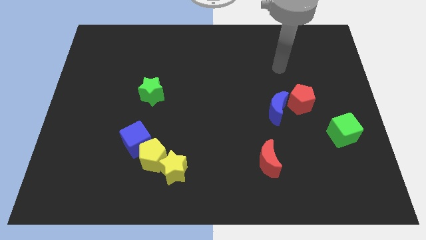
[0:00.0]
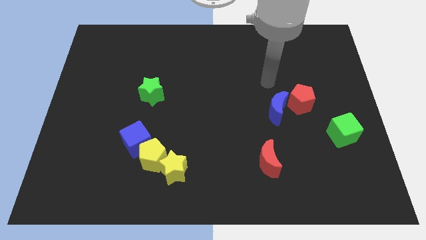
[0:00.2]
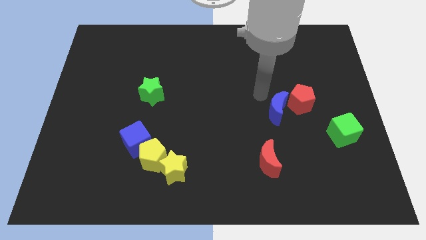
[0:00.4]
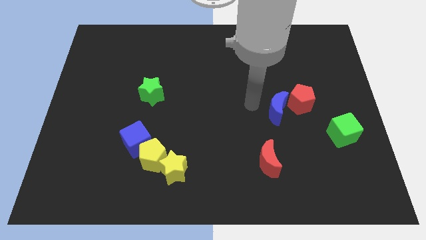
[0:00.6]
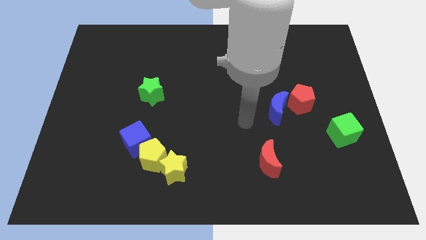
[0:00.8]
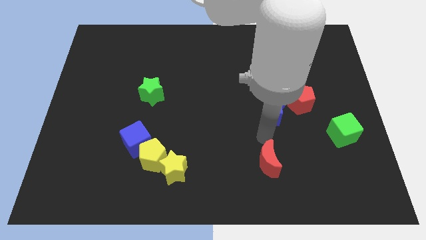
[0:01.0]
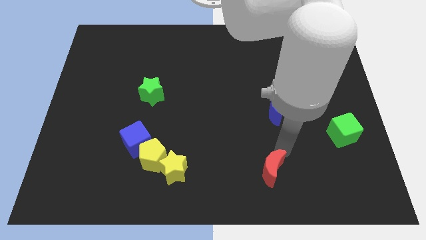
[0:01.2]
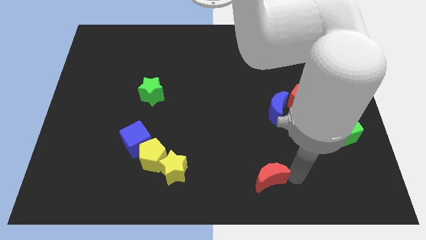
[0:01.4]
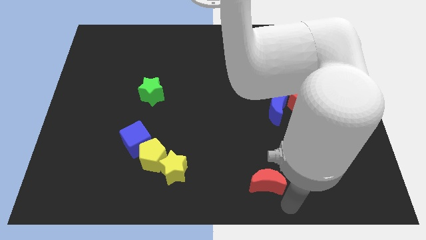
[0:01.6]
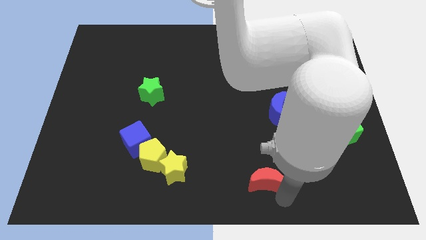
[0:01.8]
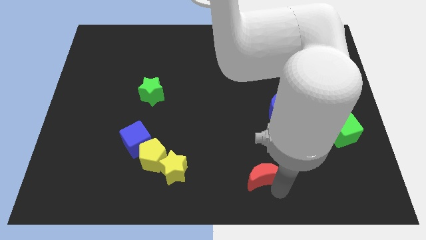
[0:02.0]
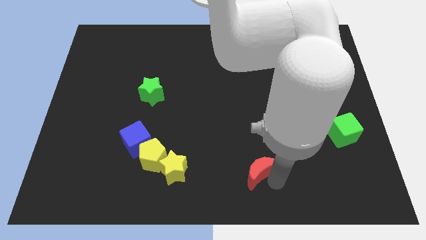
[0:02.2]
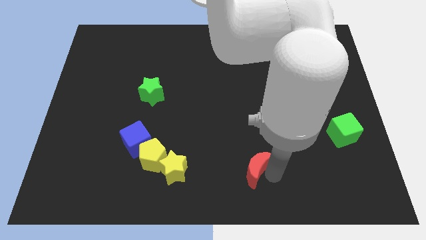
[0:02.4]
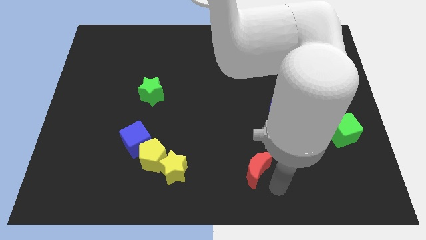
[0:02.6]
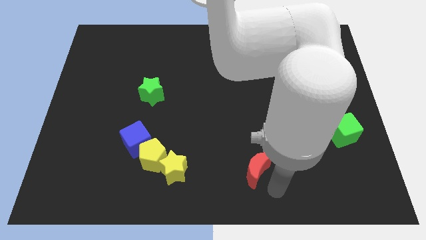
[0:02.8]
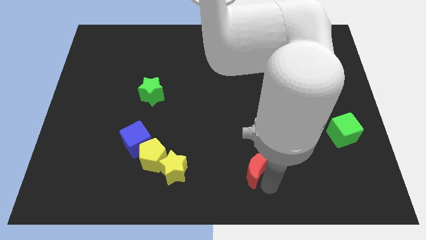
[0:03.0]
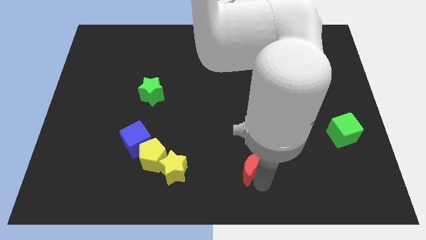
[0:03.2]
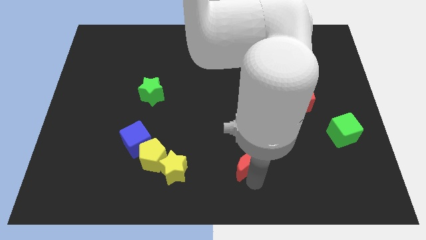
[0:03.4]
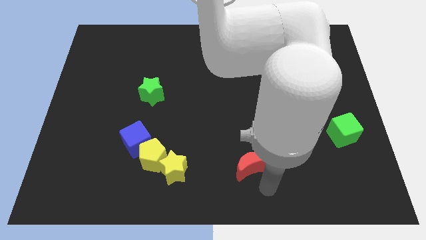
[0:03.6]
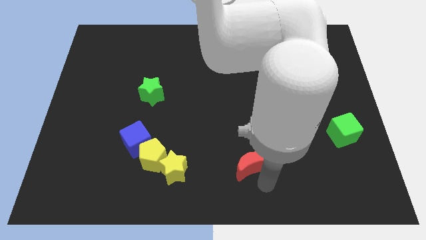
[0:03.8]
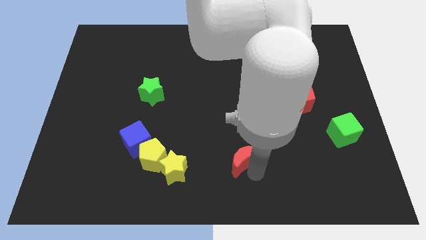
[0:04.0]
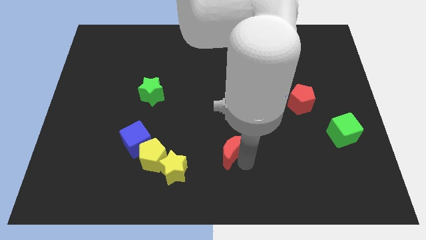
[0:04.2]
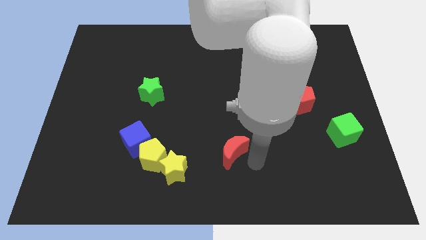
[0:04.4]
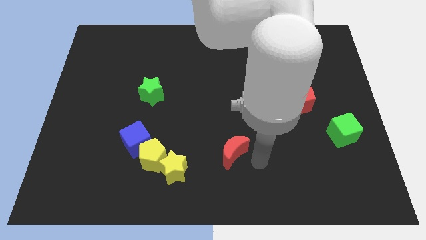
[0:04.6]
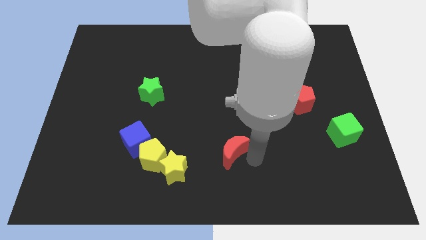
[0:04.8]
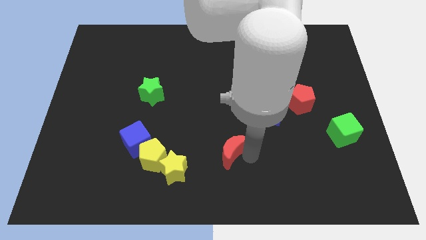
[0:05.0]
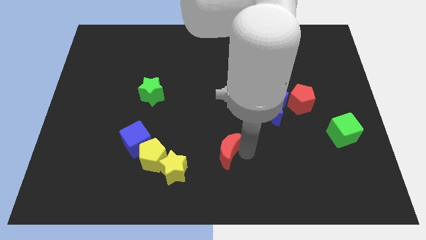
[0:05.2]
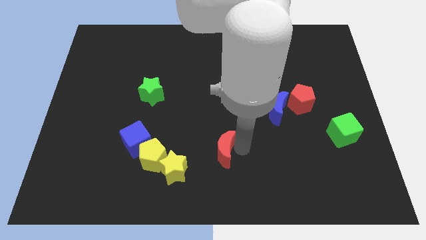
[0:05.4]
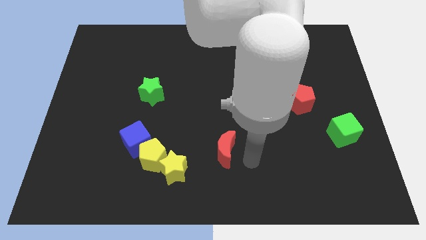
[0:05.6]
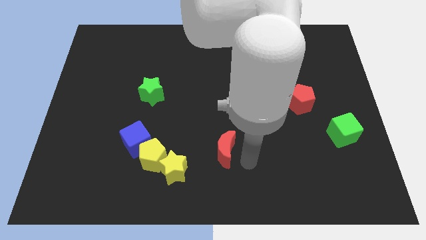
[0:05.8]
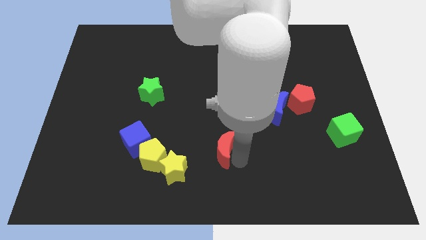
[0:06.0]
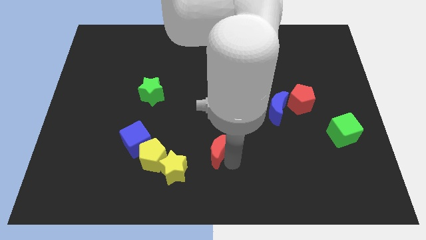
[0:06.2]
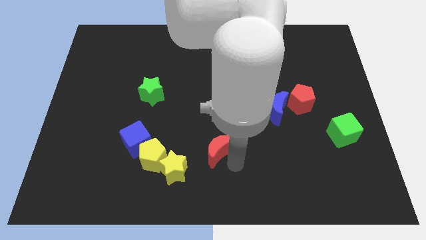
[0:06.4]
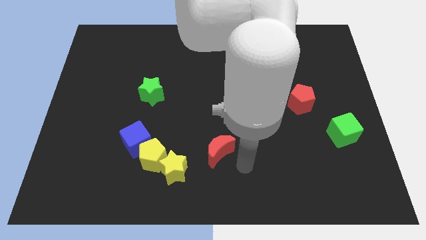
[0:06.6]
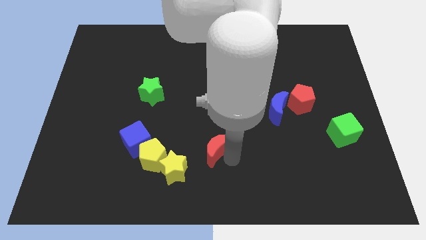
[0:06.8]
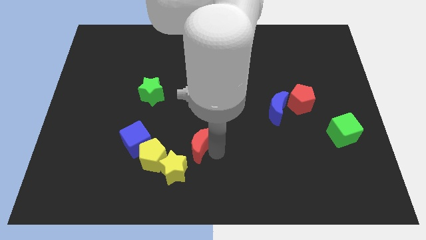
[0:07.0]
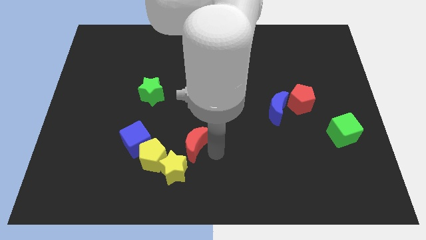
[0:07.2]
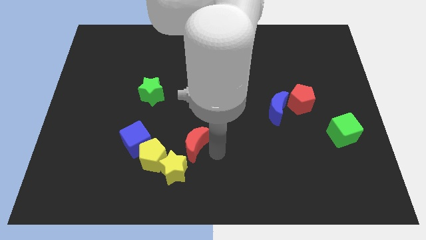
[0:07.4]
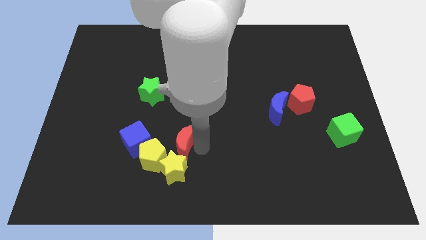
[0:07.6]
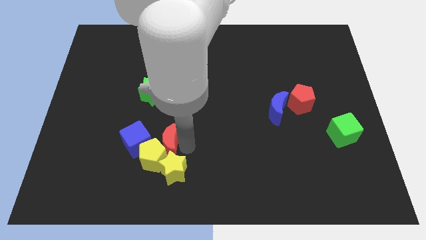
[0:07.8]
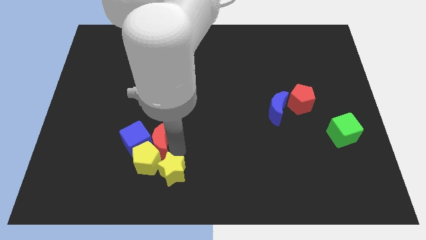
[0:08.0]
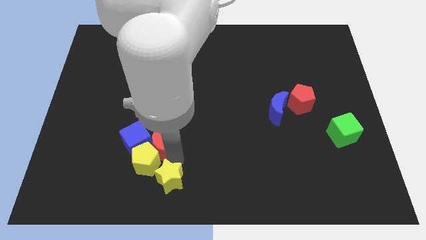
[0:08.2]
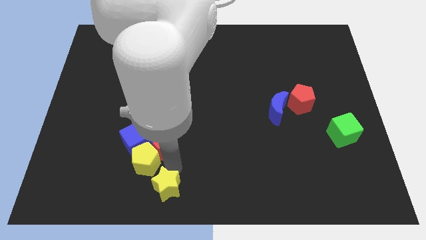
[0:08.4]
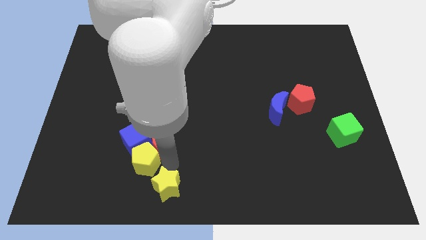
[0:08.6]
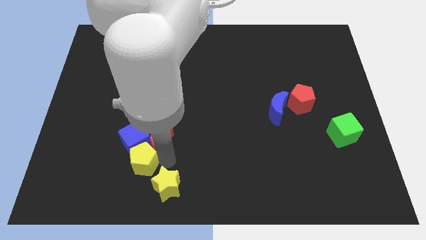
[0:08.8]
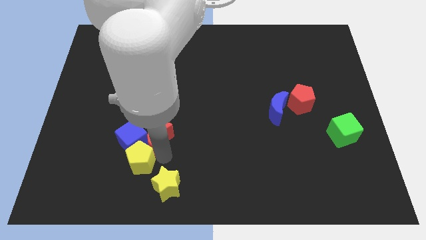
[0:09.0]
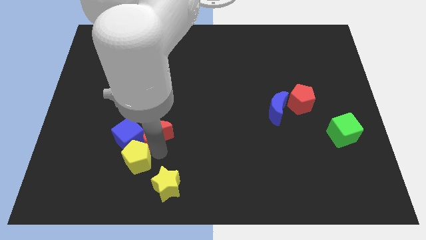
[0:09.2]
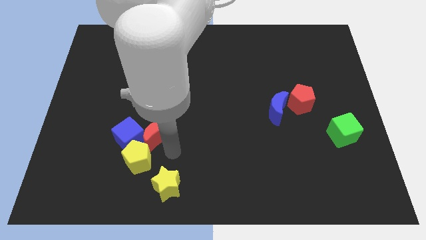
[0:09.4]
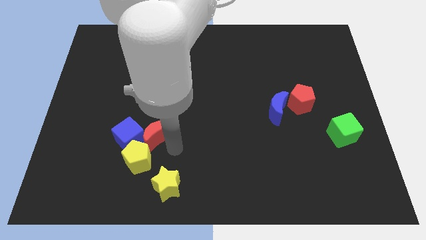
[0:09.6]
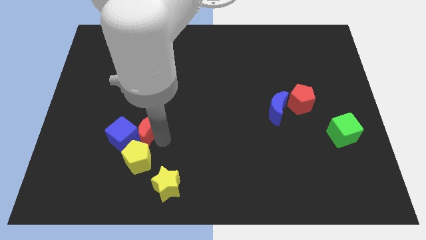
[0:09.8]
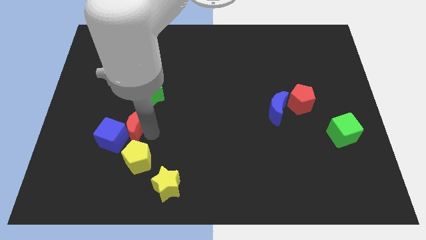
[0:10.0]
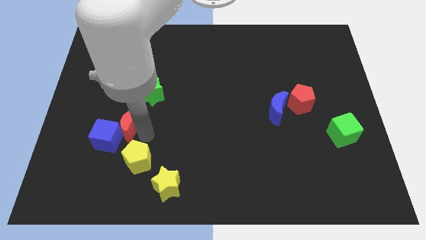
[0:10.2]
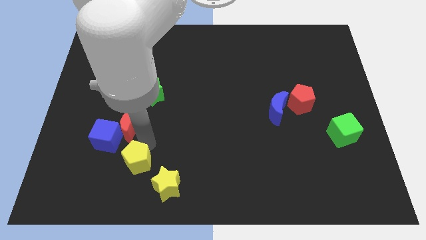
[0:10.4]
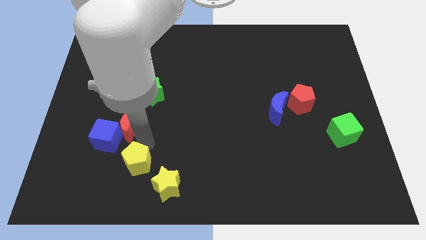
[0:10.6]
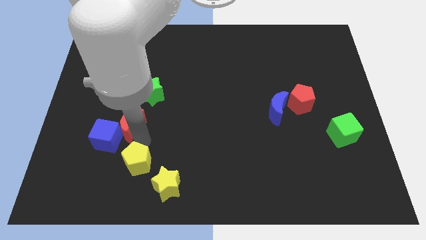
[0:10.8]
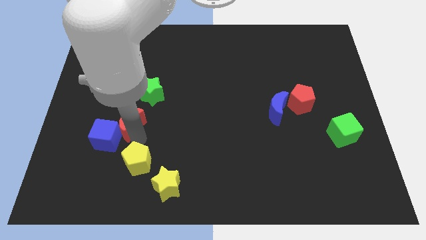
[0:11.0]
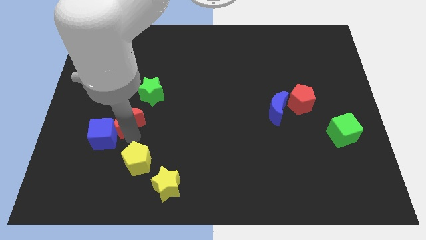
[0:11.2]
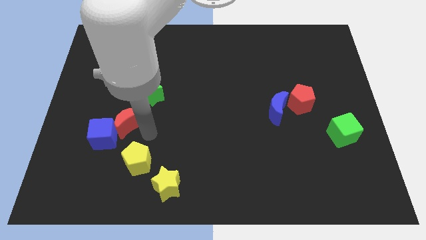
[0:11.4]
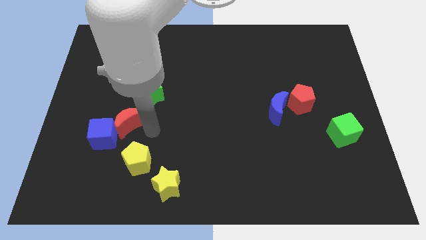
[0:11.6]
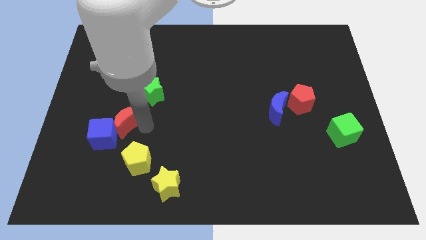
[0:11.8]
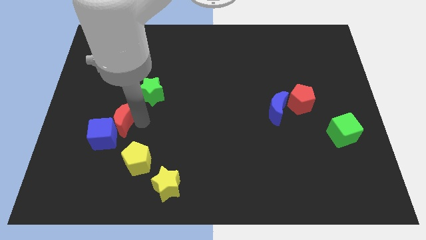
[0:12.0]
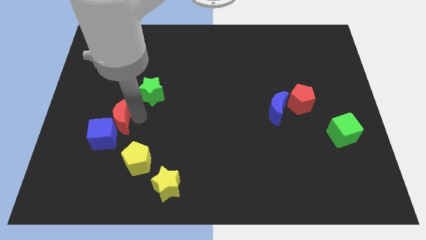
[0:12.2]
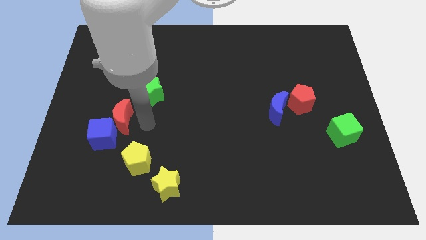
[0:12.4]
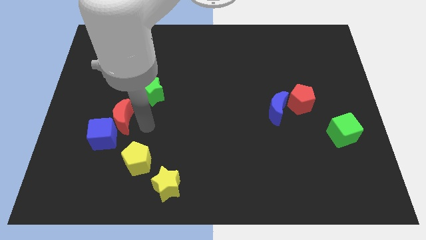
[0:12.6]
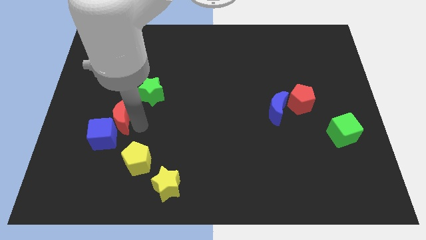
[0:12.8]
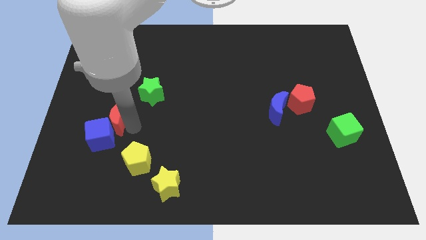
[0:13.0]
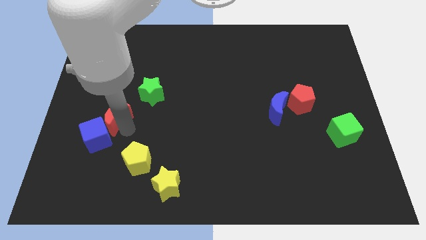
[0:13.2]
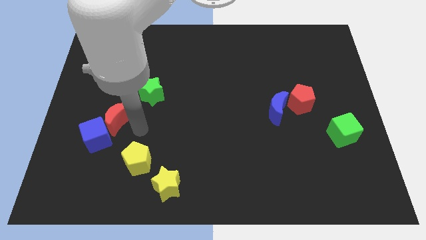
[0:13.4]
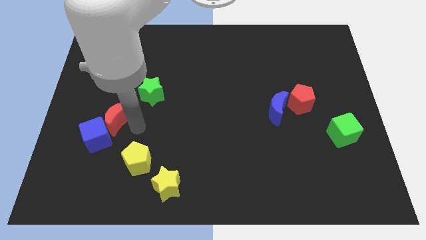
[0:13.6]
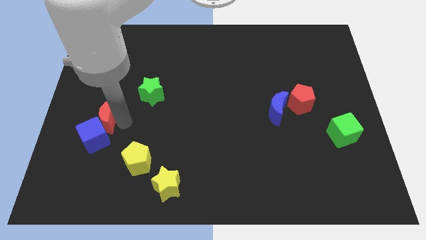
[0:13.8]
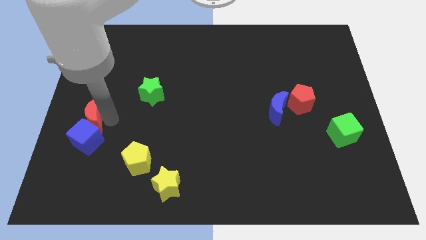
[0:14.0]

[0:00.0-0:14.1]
push the red moon to the left side
